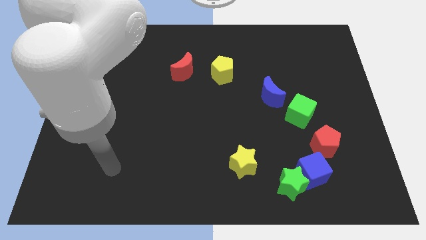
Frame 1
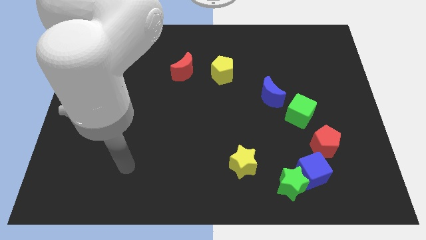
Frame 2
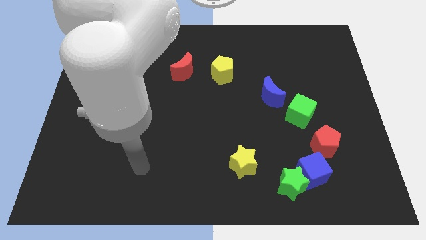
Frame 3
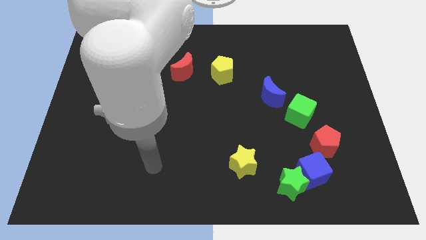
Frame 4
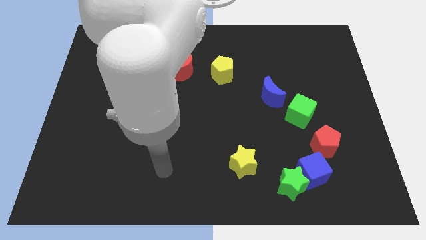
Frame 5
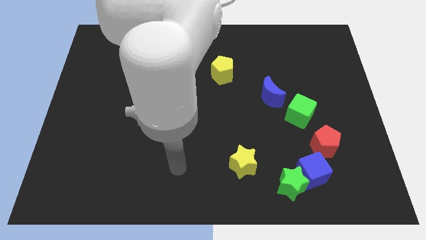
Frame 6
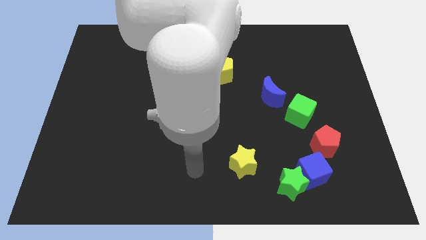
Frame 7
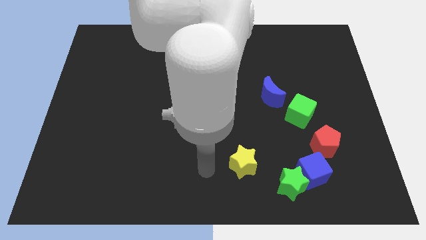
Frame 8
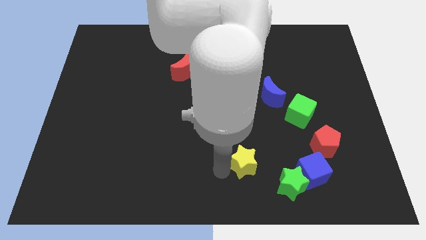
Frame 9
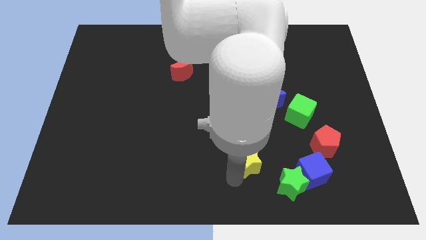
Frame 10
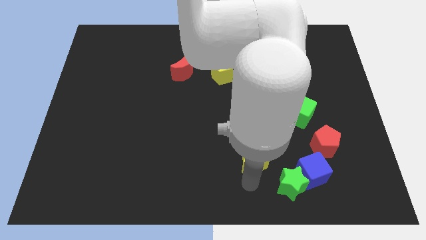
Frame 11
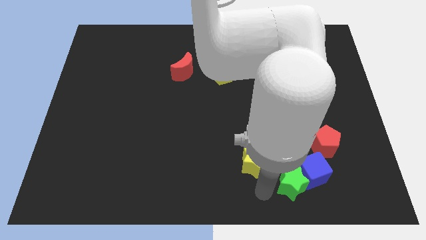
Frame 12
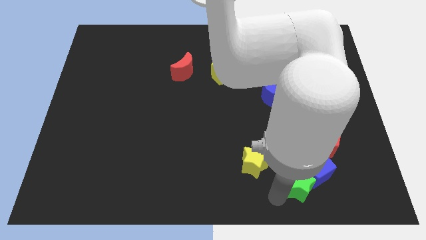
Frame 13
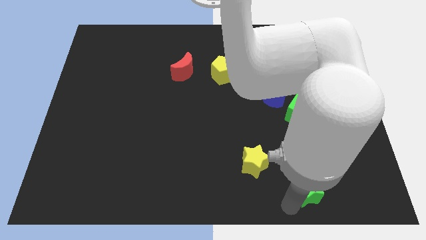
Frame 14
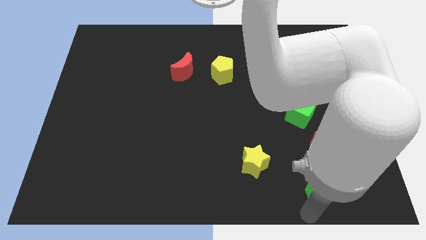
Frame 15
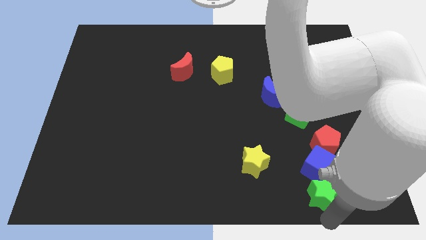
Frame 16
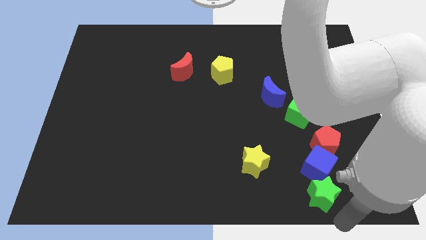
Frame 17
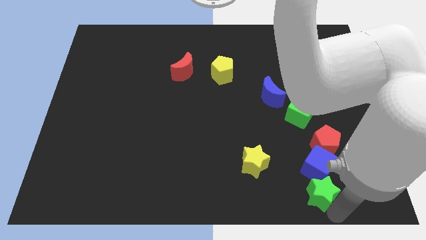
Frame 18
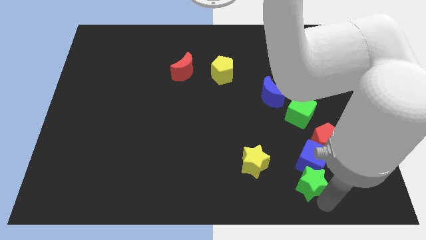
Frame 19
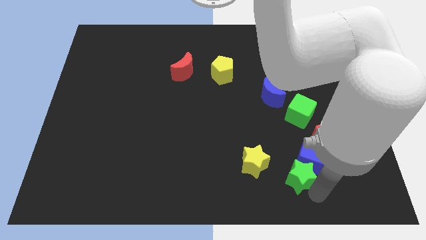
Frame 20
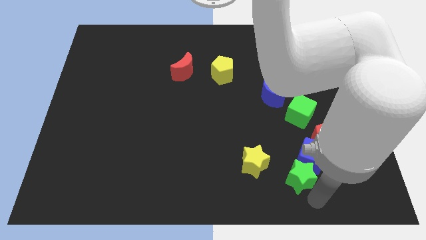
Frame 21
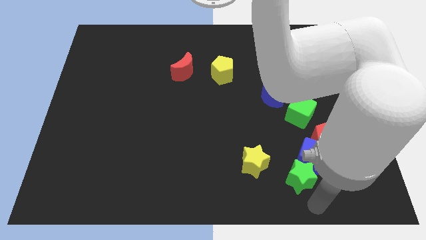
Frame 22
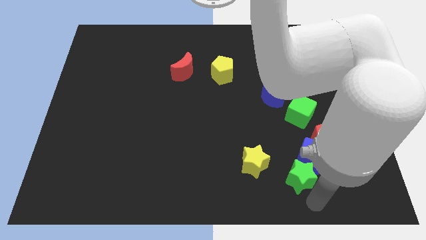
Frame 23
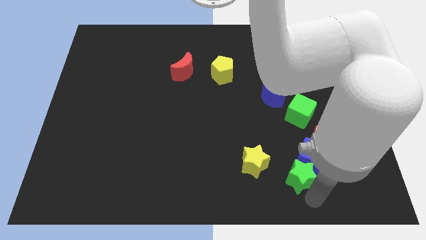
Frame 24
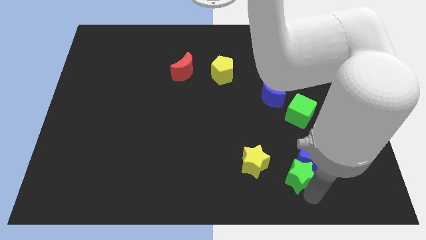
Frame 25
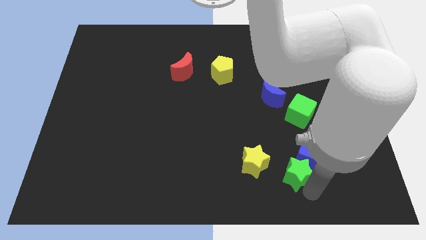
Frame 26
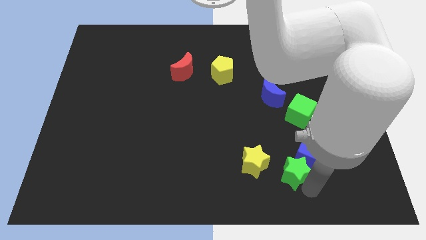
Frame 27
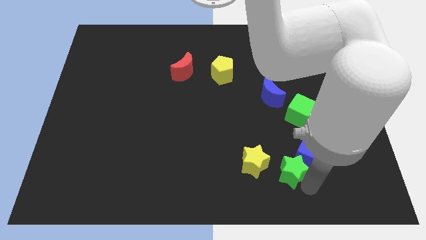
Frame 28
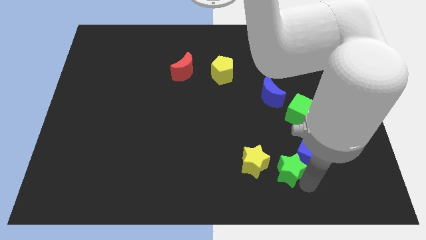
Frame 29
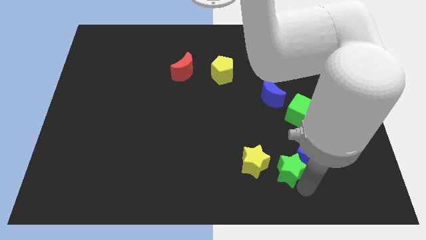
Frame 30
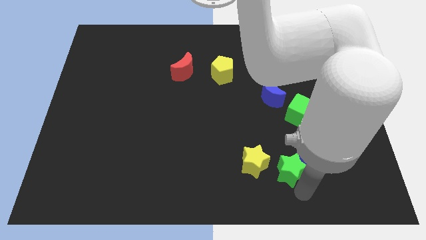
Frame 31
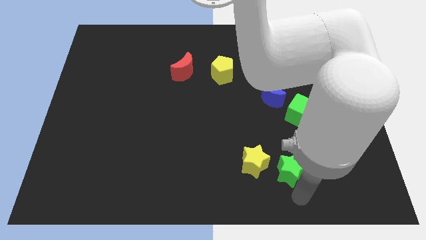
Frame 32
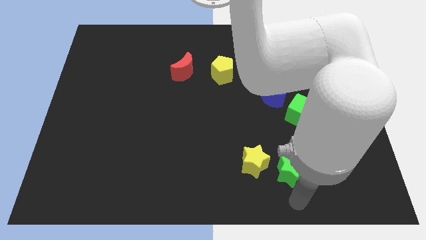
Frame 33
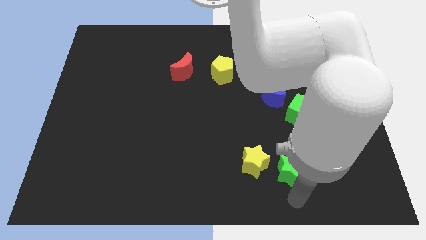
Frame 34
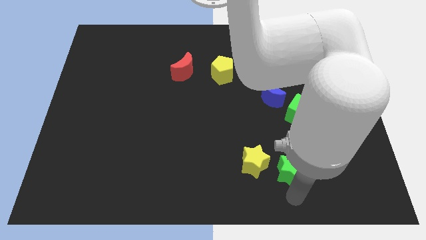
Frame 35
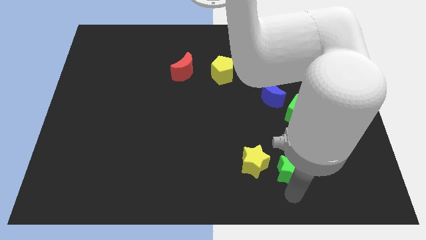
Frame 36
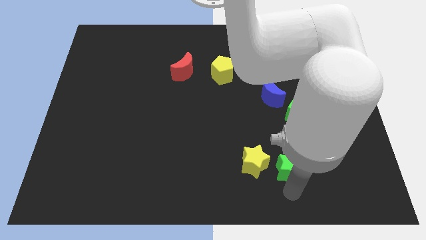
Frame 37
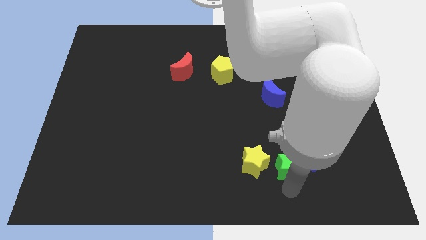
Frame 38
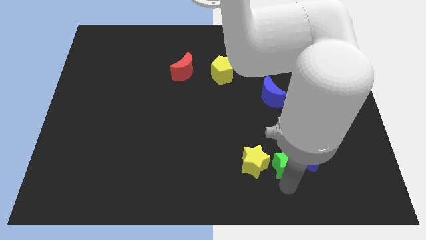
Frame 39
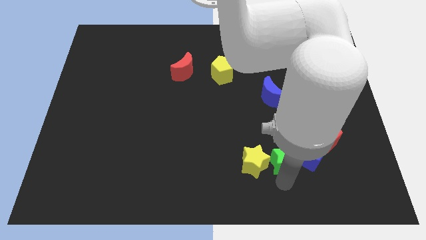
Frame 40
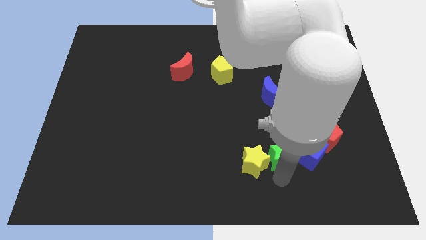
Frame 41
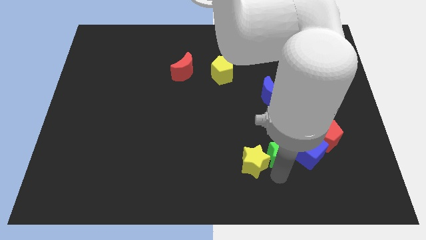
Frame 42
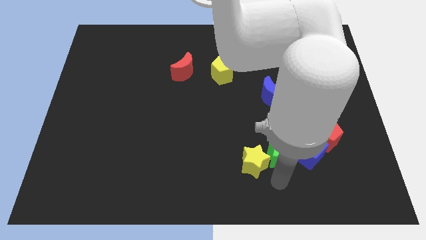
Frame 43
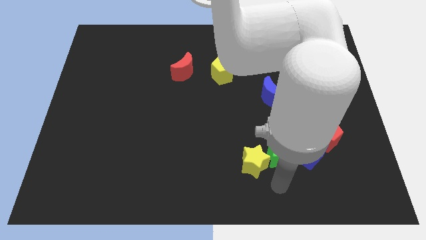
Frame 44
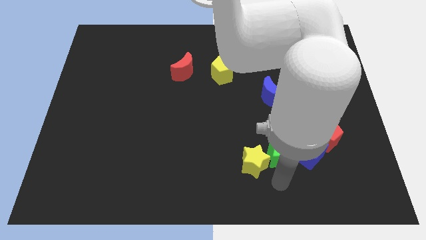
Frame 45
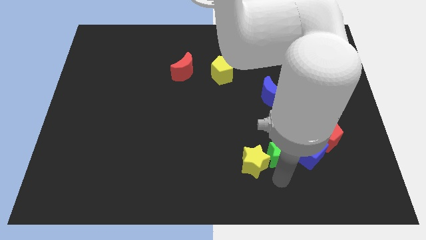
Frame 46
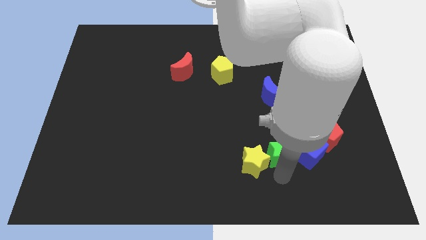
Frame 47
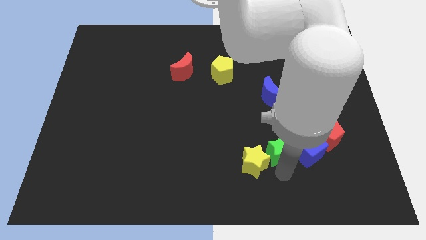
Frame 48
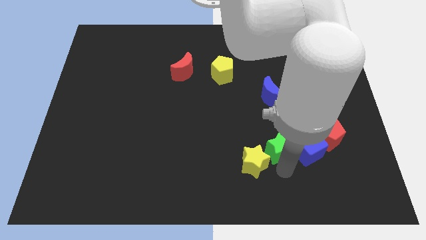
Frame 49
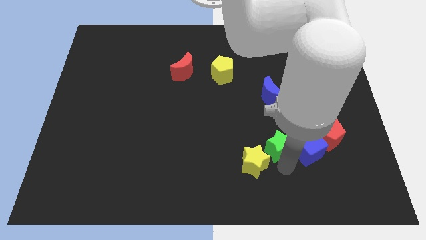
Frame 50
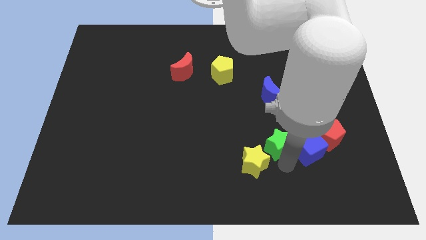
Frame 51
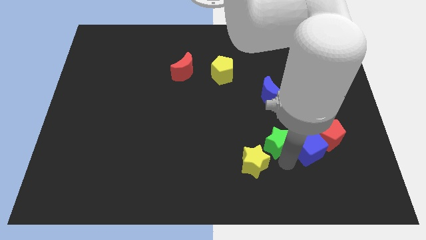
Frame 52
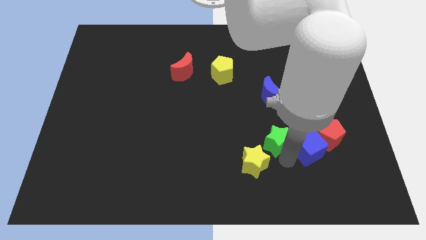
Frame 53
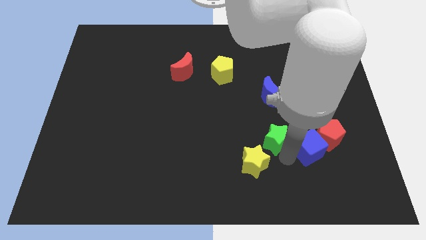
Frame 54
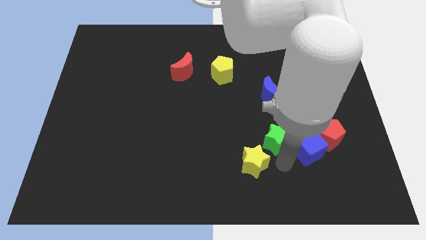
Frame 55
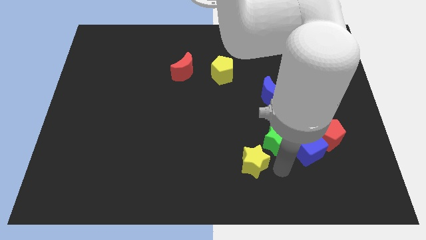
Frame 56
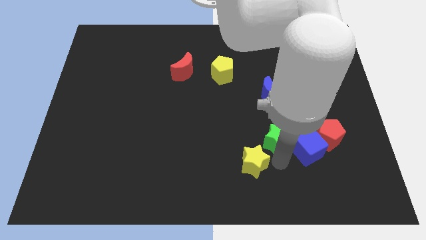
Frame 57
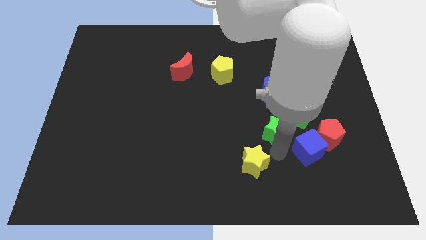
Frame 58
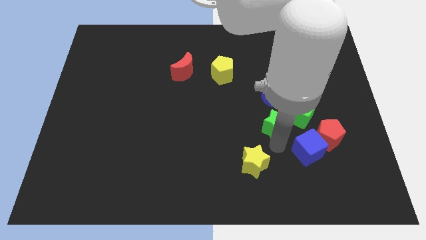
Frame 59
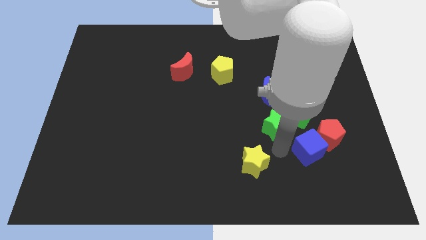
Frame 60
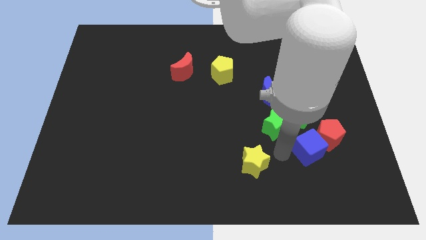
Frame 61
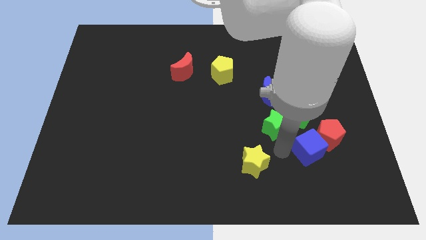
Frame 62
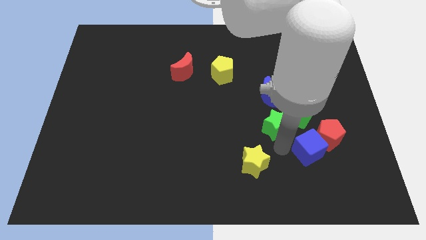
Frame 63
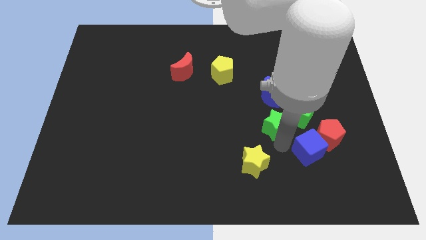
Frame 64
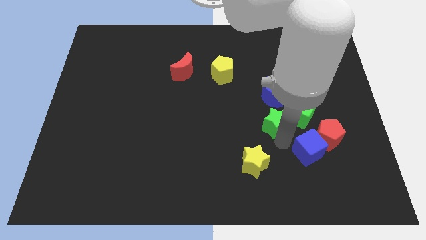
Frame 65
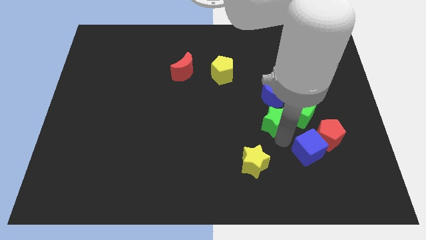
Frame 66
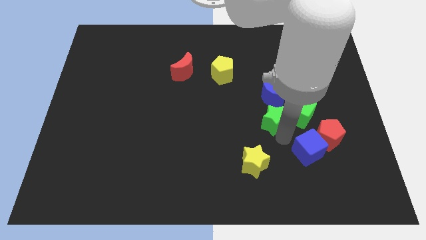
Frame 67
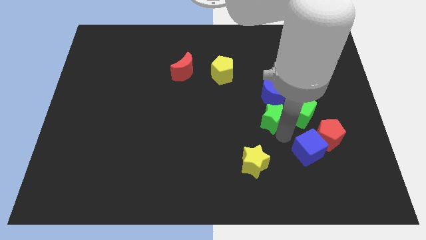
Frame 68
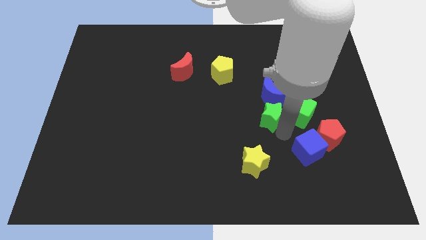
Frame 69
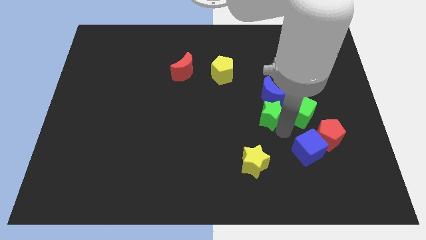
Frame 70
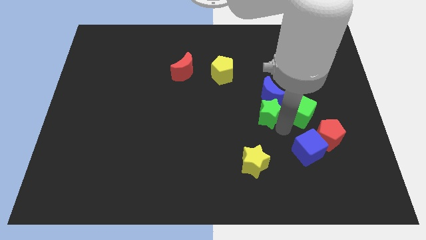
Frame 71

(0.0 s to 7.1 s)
push the green star close to the blue moon
